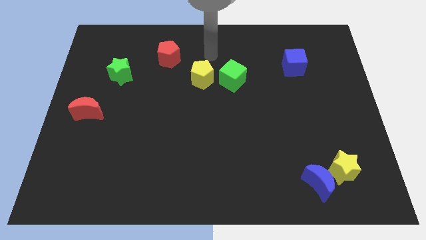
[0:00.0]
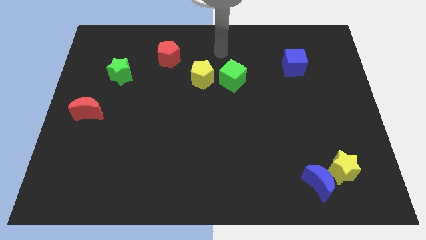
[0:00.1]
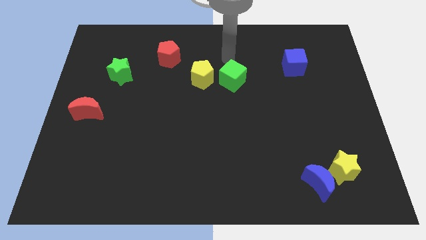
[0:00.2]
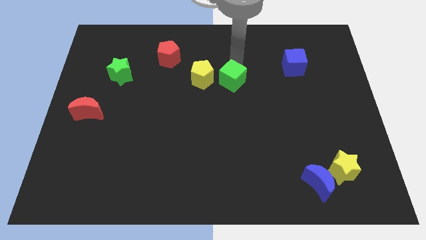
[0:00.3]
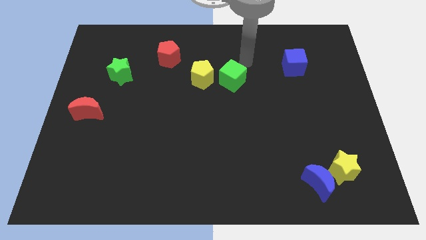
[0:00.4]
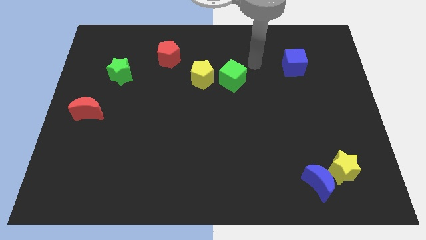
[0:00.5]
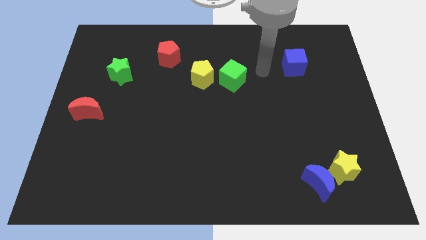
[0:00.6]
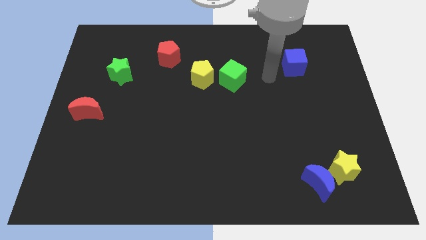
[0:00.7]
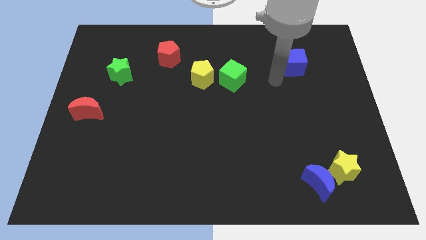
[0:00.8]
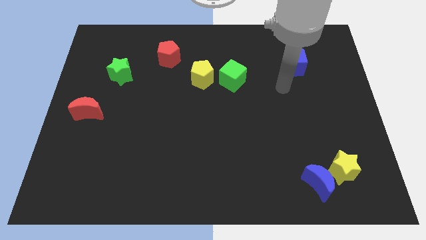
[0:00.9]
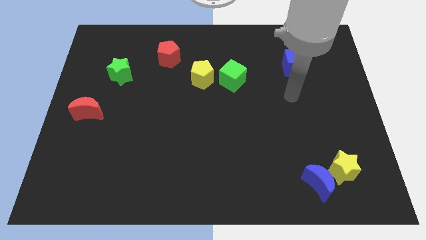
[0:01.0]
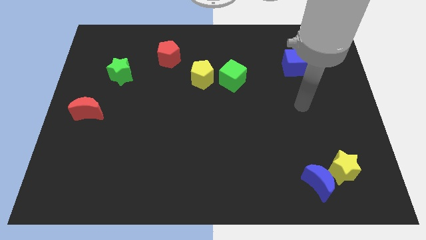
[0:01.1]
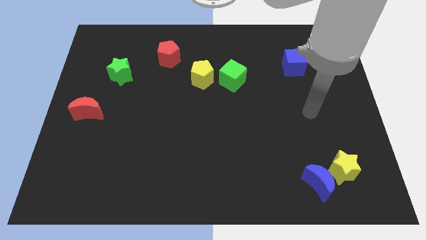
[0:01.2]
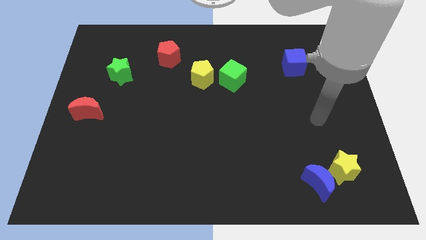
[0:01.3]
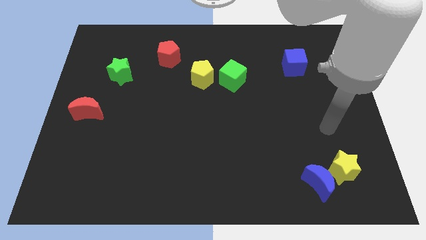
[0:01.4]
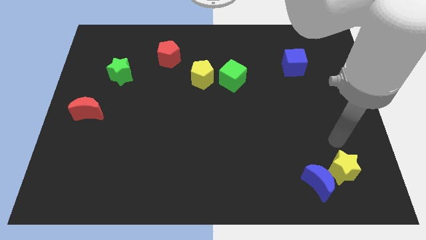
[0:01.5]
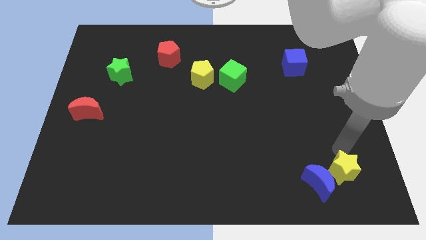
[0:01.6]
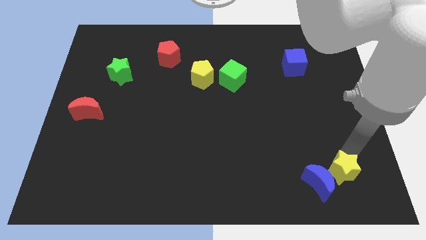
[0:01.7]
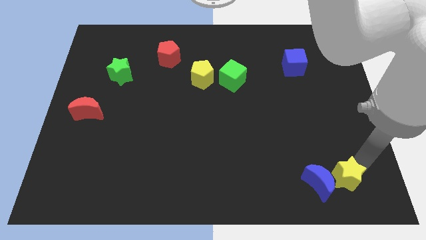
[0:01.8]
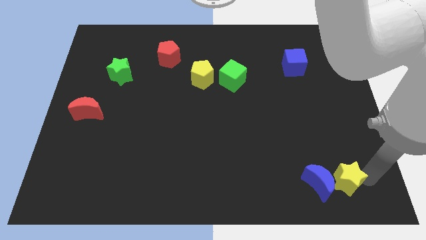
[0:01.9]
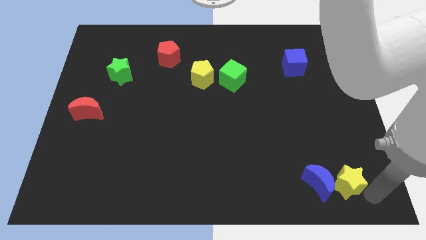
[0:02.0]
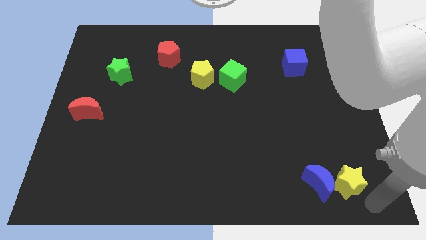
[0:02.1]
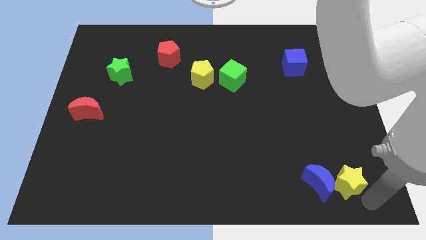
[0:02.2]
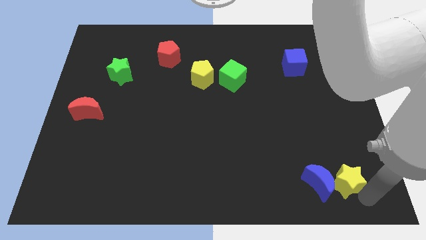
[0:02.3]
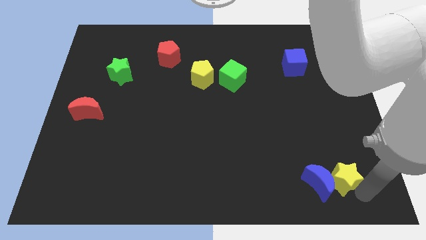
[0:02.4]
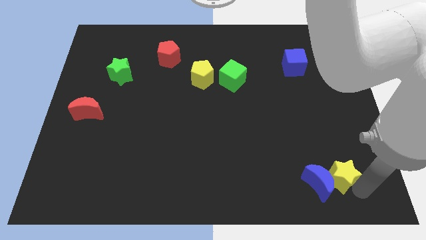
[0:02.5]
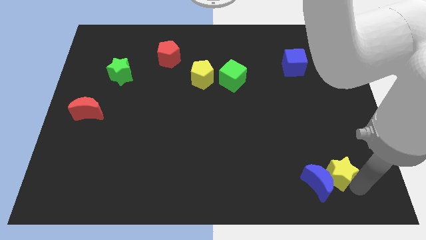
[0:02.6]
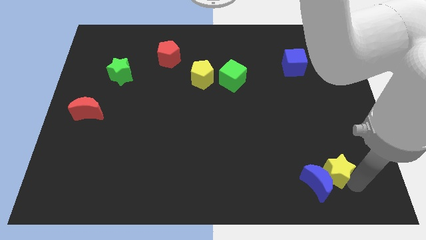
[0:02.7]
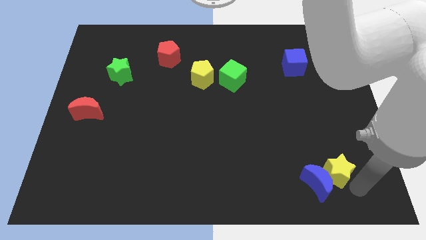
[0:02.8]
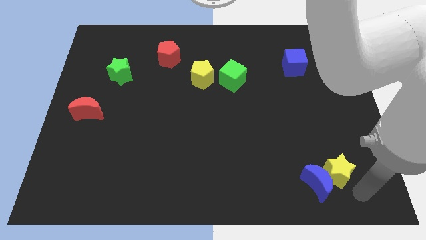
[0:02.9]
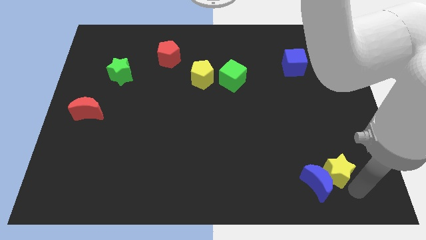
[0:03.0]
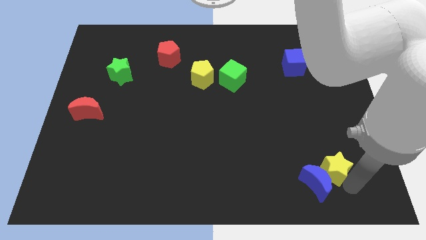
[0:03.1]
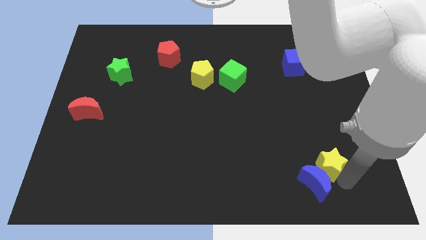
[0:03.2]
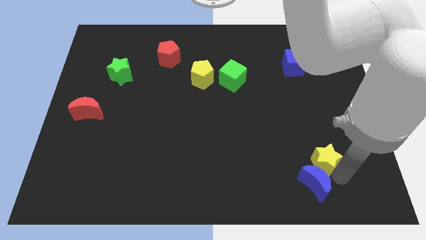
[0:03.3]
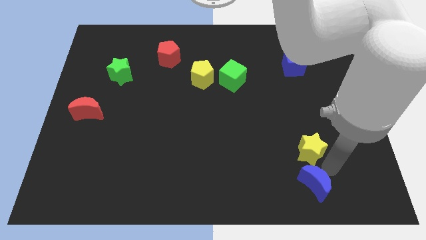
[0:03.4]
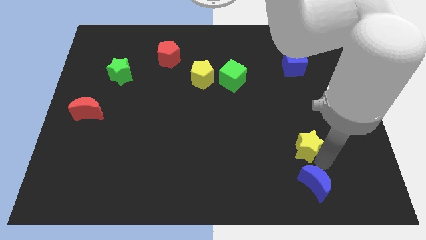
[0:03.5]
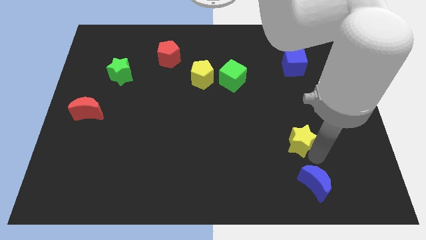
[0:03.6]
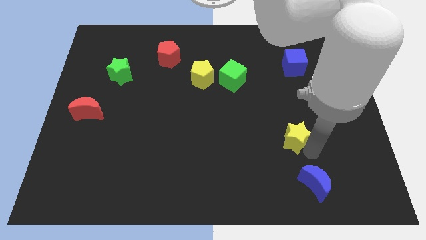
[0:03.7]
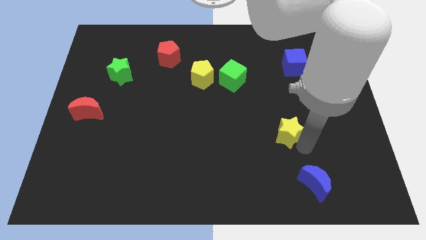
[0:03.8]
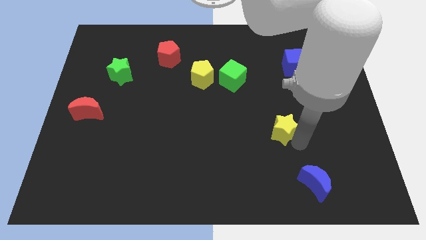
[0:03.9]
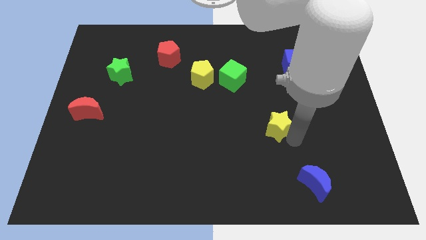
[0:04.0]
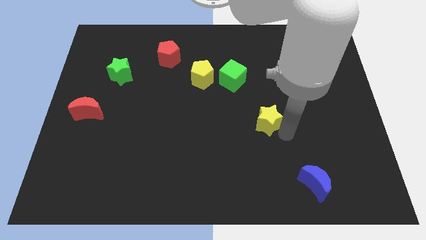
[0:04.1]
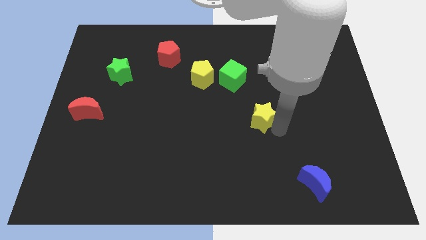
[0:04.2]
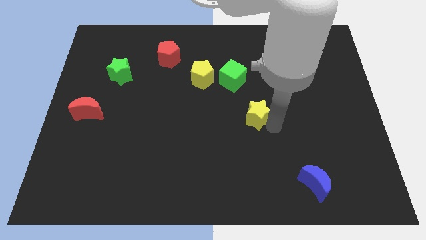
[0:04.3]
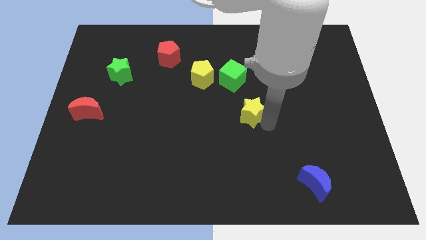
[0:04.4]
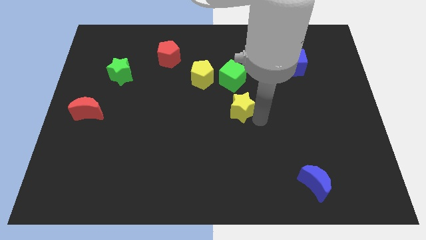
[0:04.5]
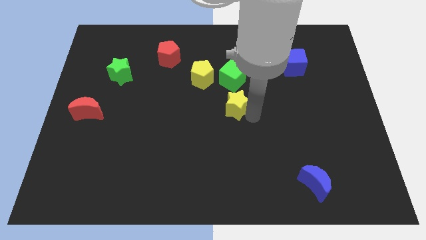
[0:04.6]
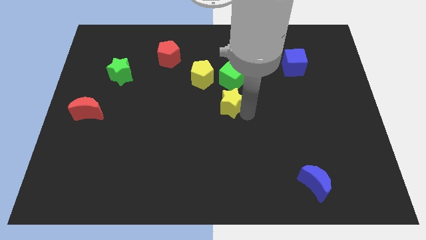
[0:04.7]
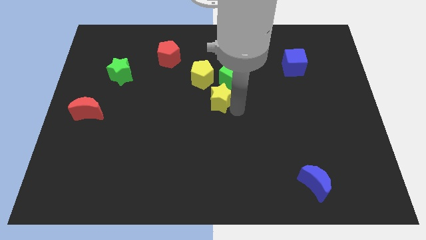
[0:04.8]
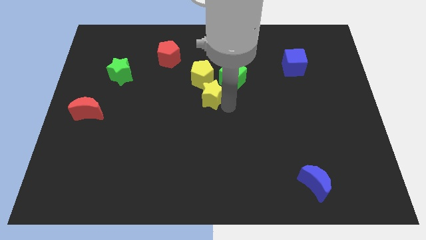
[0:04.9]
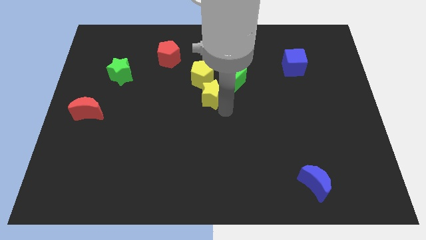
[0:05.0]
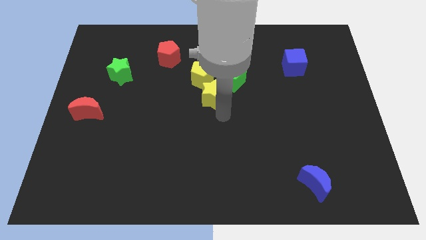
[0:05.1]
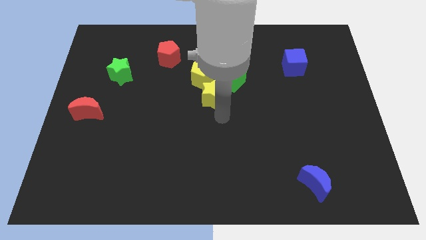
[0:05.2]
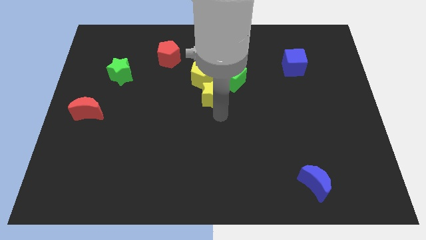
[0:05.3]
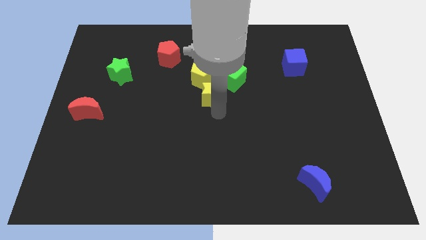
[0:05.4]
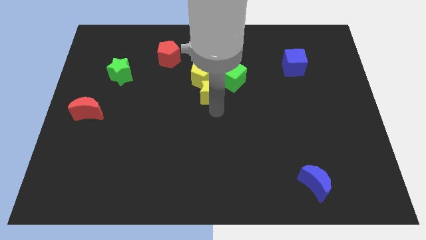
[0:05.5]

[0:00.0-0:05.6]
push the yellow star to the yellow pentagon

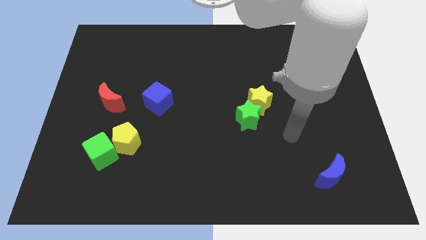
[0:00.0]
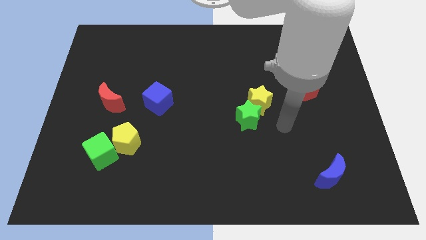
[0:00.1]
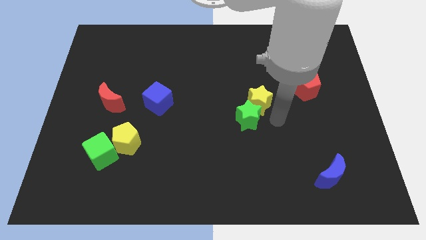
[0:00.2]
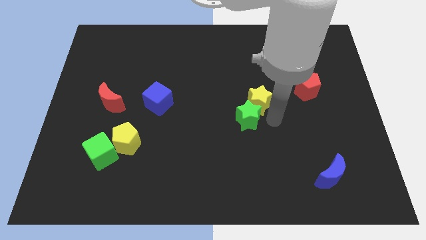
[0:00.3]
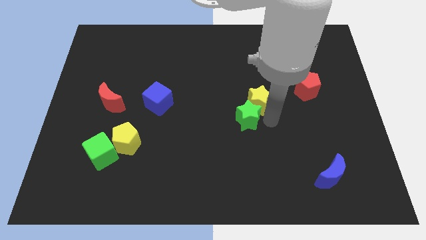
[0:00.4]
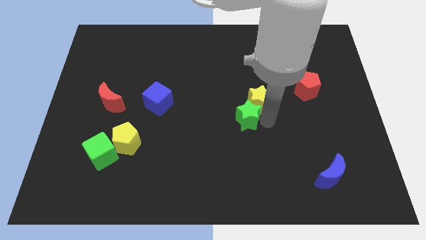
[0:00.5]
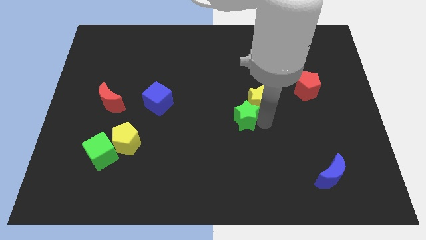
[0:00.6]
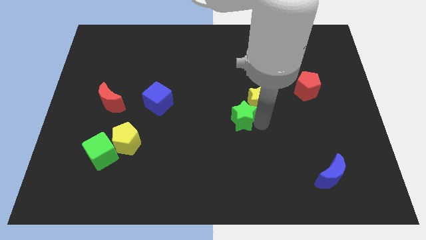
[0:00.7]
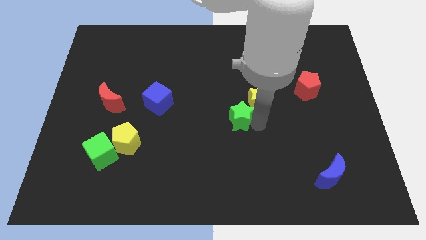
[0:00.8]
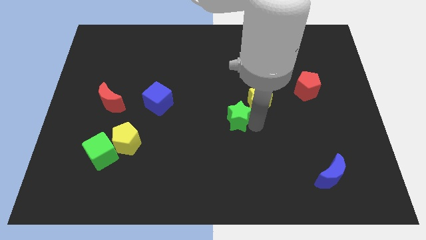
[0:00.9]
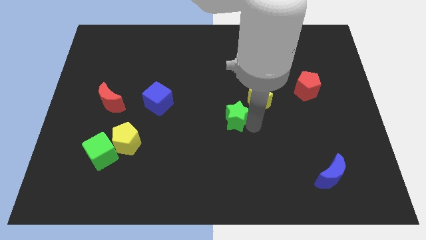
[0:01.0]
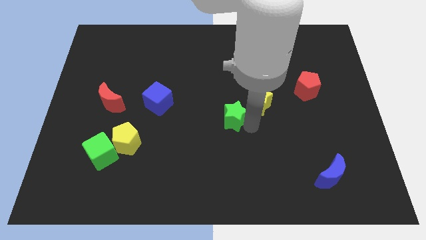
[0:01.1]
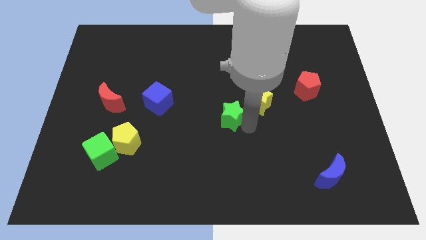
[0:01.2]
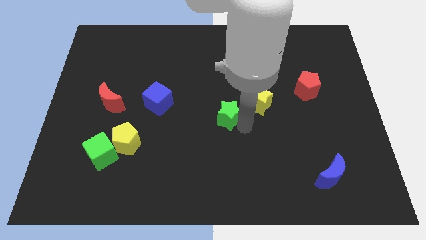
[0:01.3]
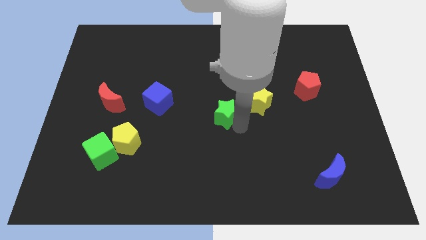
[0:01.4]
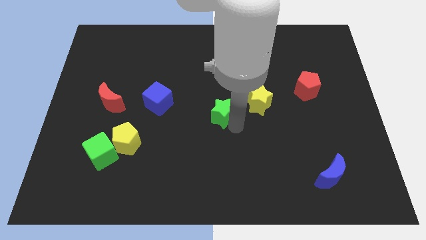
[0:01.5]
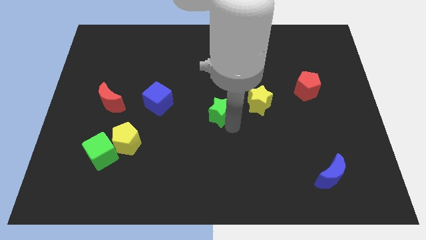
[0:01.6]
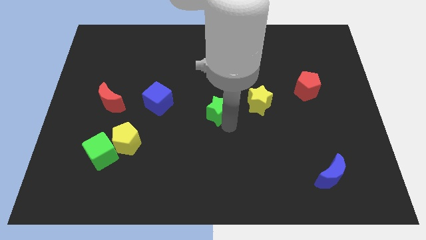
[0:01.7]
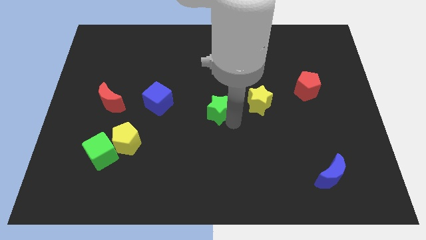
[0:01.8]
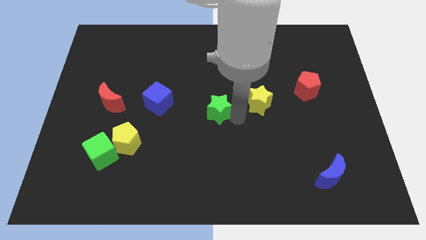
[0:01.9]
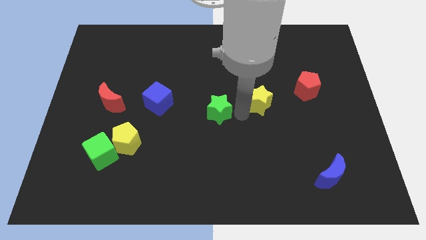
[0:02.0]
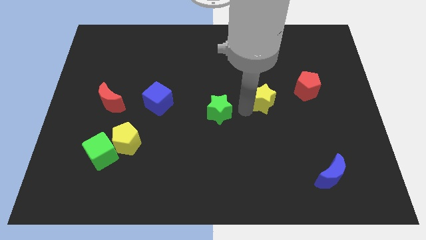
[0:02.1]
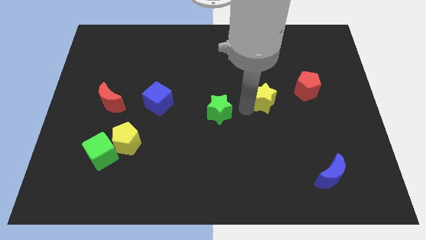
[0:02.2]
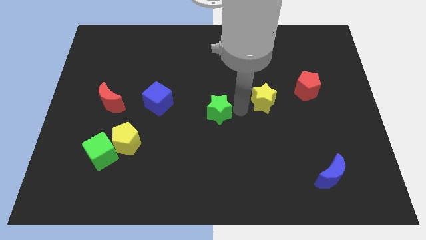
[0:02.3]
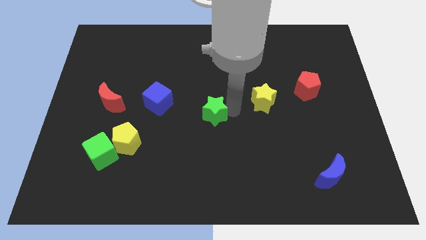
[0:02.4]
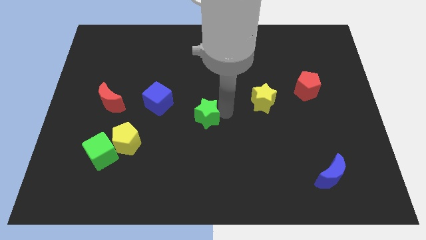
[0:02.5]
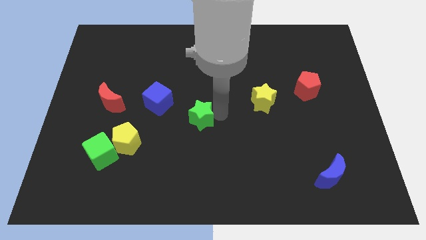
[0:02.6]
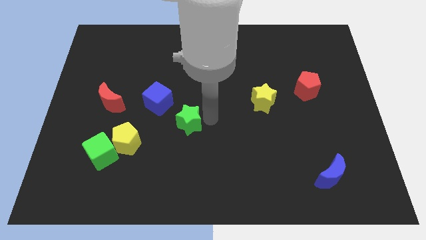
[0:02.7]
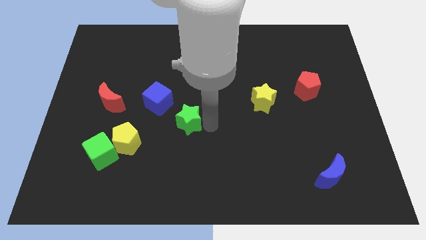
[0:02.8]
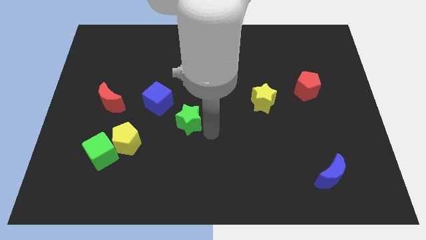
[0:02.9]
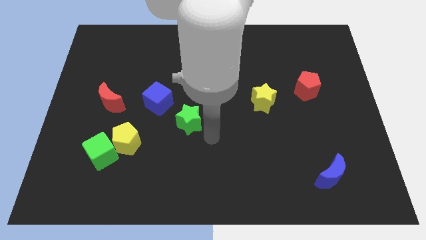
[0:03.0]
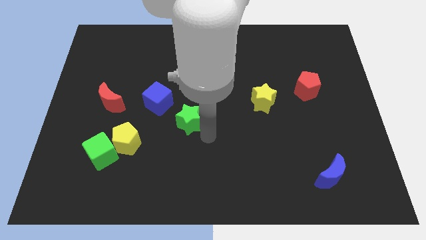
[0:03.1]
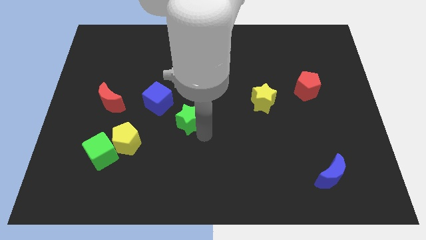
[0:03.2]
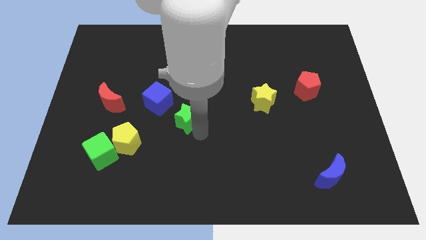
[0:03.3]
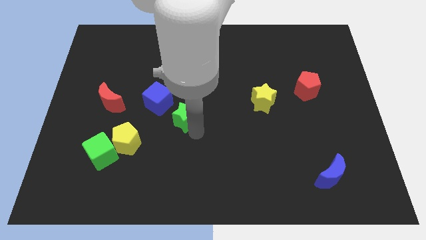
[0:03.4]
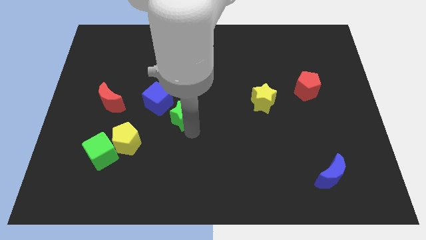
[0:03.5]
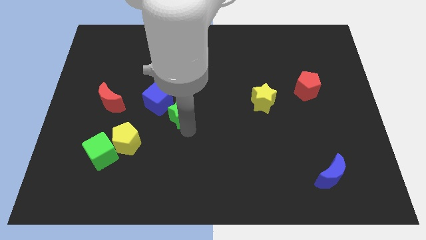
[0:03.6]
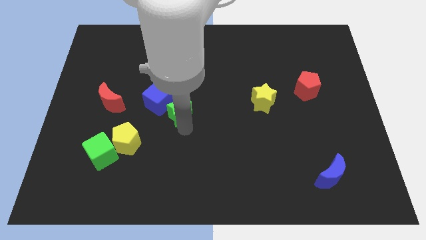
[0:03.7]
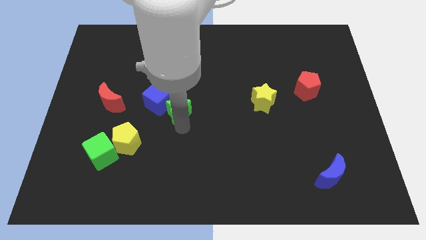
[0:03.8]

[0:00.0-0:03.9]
move the green star to the blue cube
